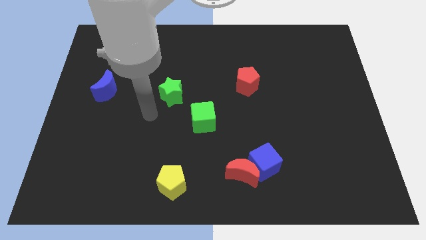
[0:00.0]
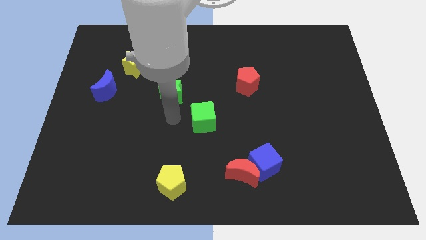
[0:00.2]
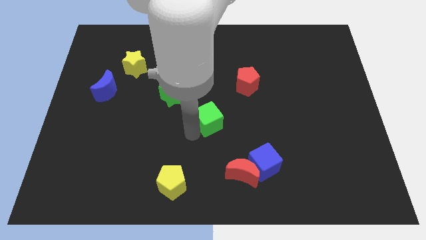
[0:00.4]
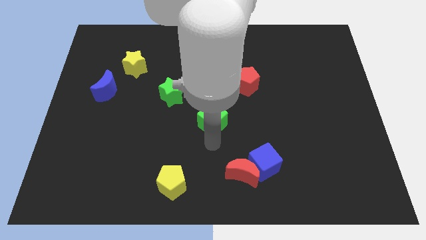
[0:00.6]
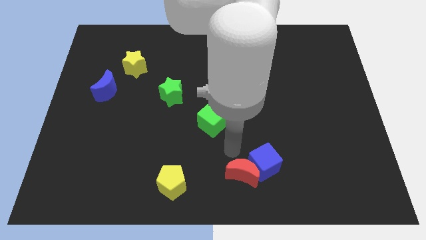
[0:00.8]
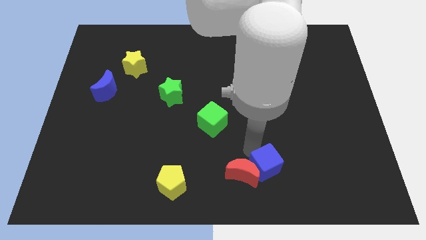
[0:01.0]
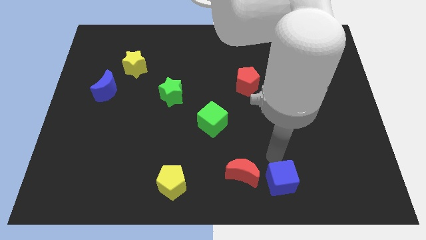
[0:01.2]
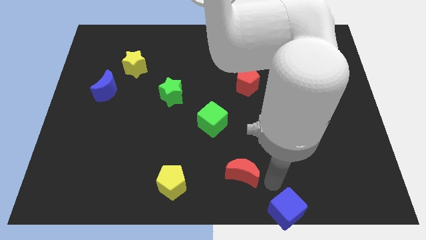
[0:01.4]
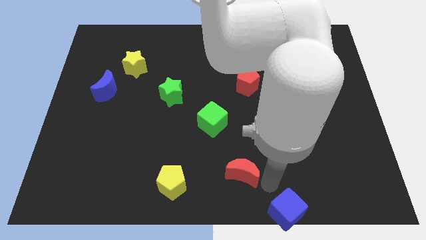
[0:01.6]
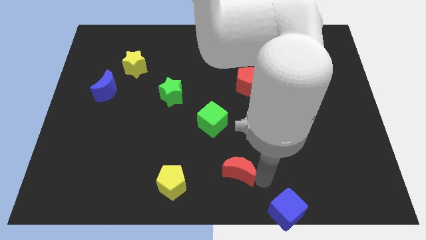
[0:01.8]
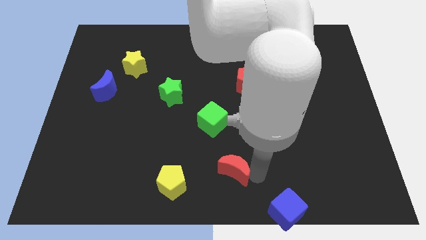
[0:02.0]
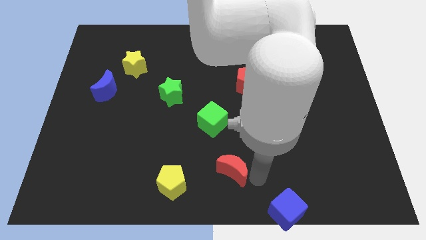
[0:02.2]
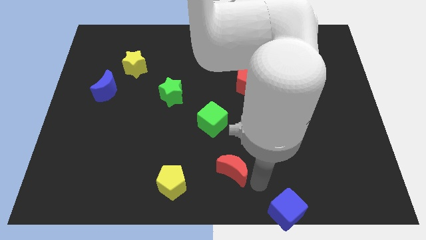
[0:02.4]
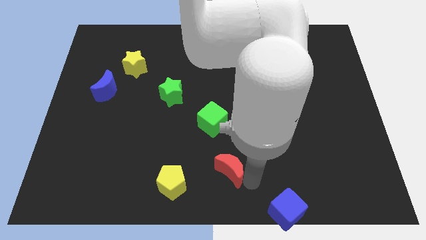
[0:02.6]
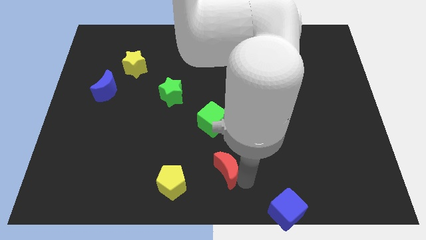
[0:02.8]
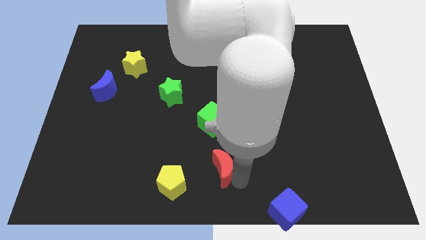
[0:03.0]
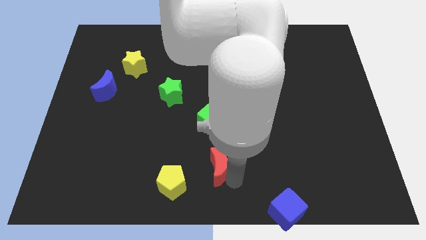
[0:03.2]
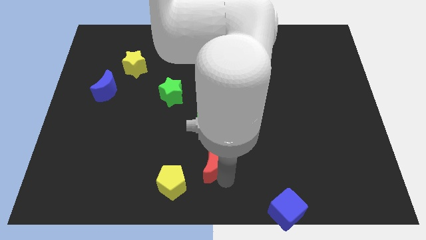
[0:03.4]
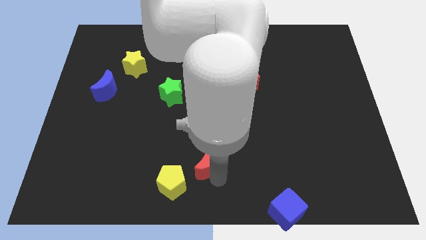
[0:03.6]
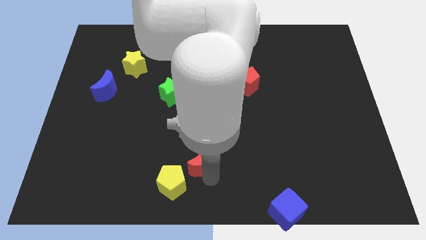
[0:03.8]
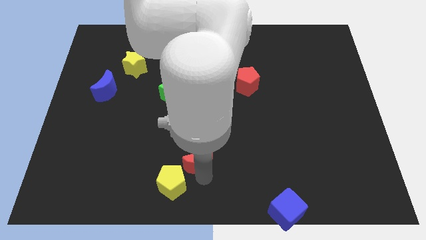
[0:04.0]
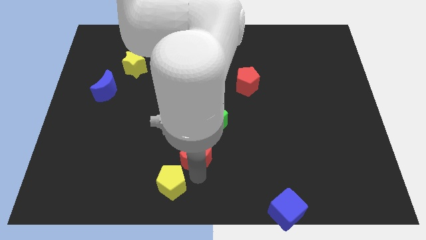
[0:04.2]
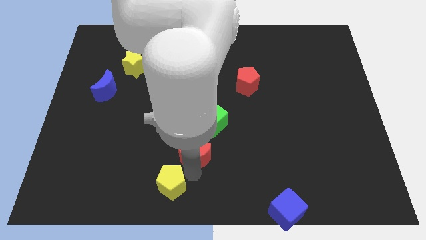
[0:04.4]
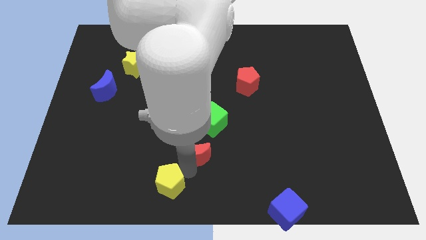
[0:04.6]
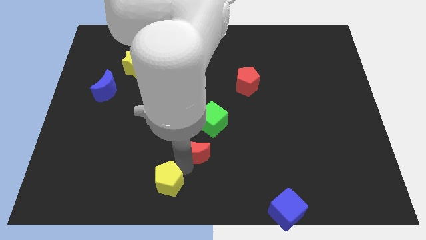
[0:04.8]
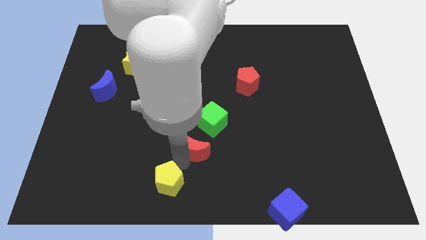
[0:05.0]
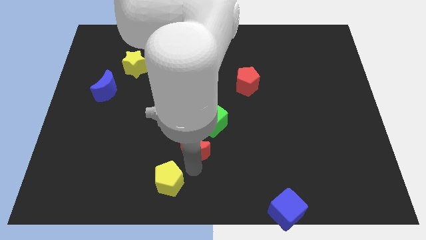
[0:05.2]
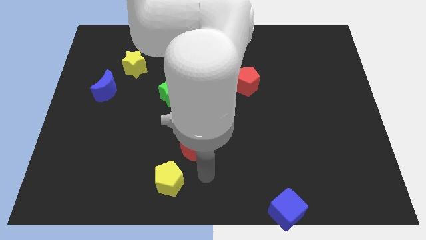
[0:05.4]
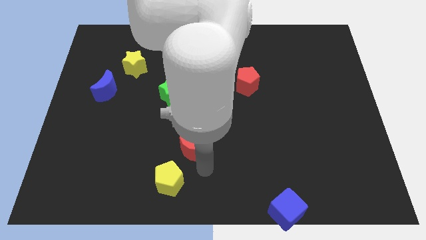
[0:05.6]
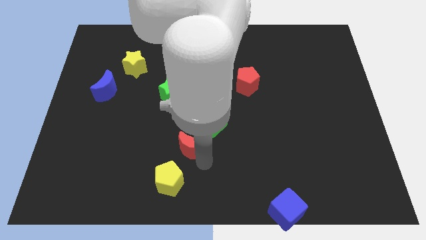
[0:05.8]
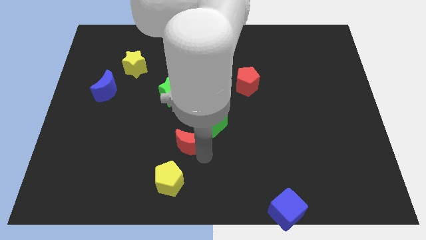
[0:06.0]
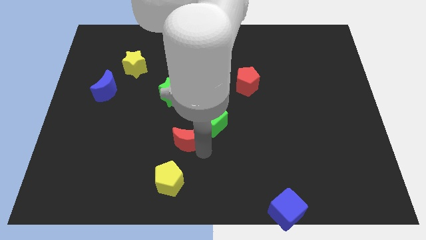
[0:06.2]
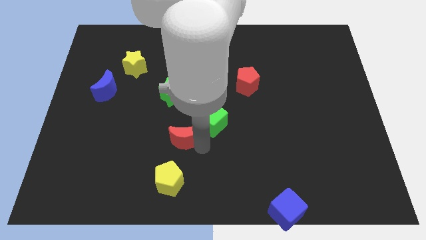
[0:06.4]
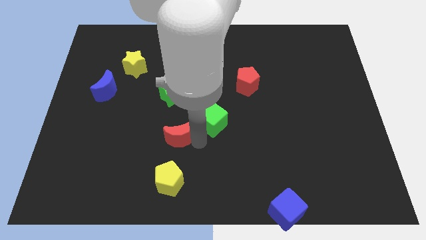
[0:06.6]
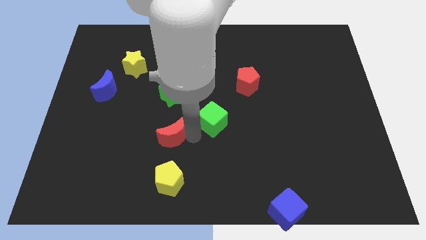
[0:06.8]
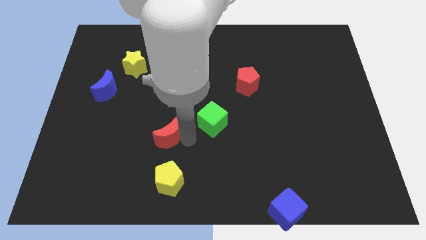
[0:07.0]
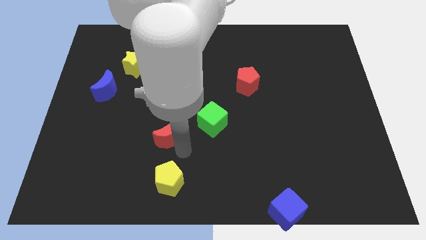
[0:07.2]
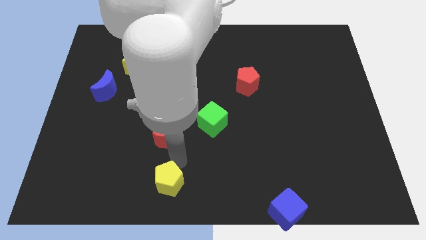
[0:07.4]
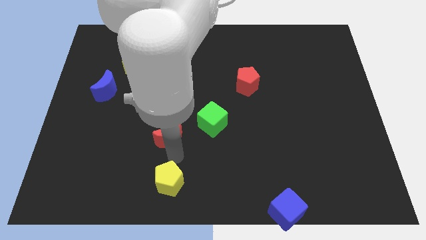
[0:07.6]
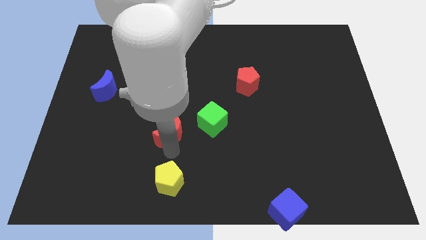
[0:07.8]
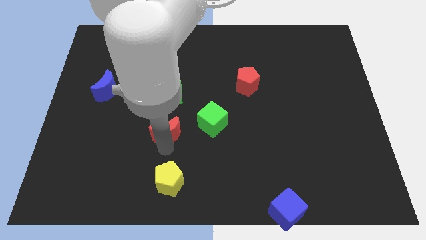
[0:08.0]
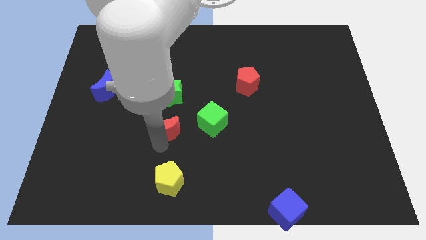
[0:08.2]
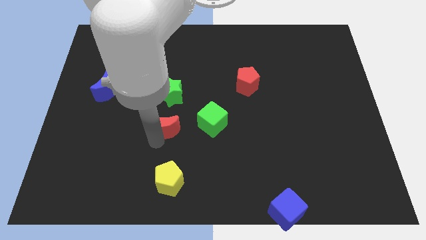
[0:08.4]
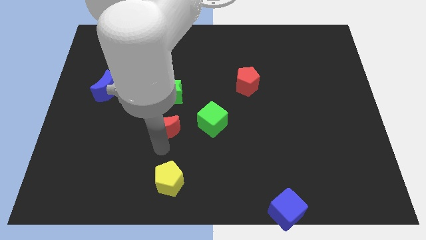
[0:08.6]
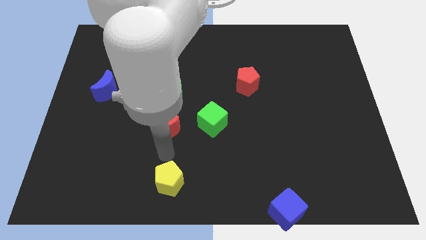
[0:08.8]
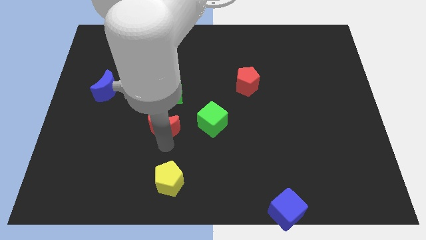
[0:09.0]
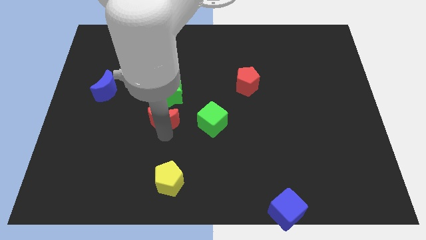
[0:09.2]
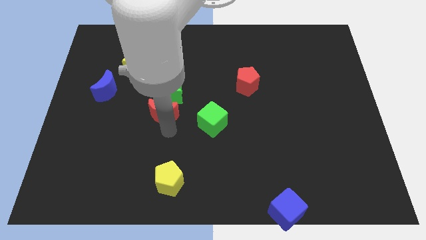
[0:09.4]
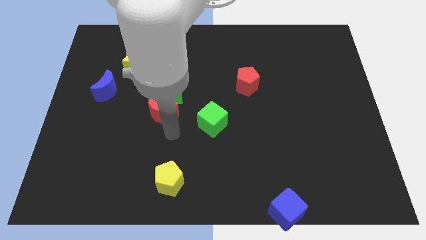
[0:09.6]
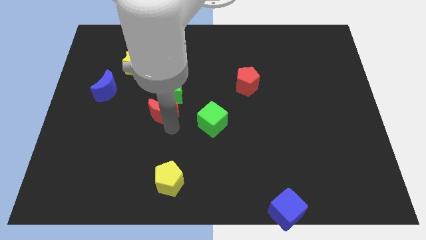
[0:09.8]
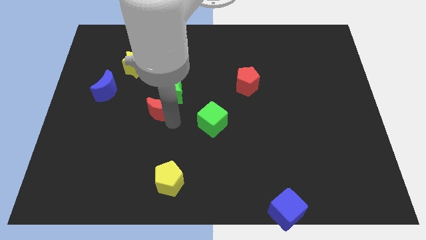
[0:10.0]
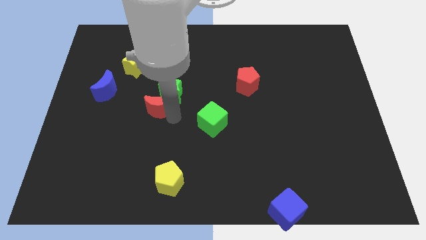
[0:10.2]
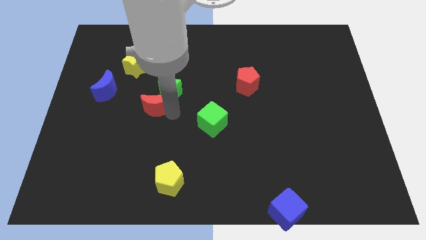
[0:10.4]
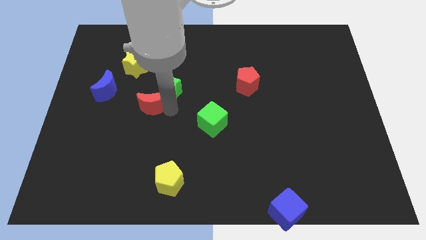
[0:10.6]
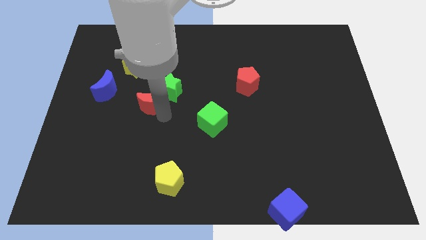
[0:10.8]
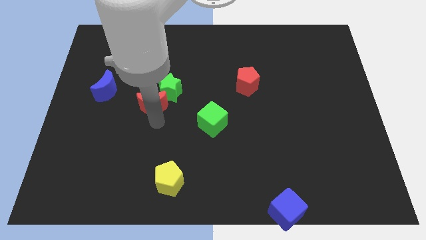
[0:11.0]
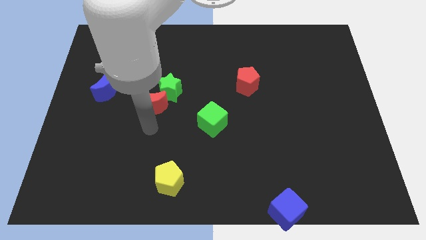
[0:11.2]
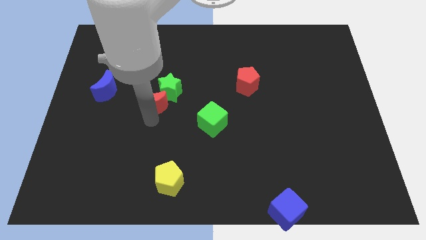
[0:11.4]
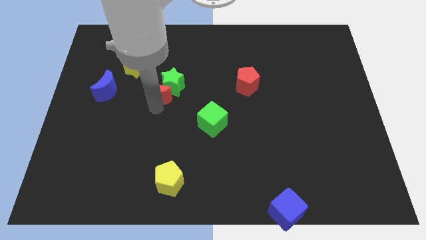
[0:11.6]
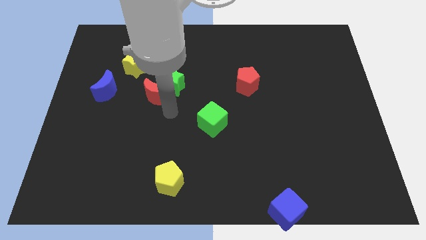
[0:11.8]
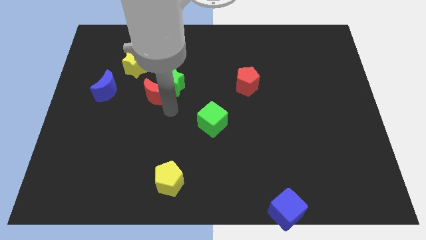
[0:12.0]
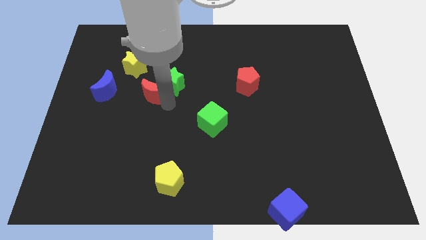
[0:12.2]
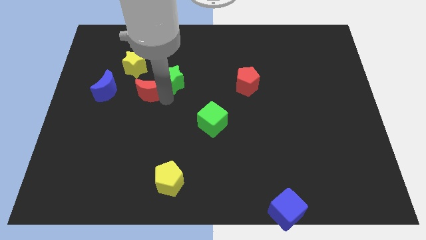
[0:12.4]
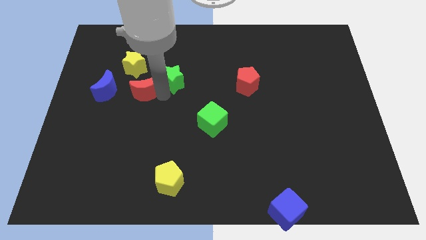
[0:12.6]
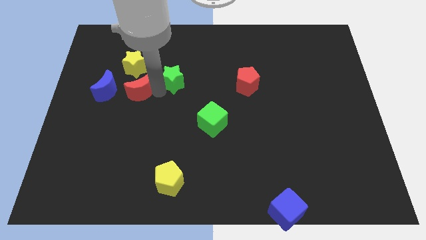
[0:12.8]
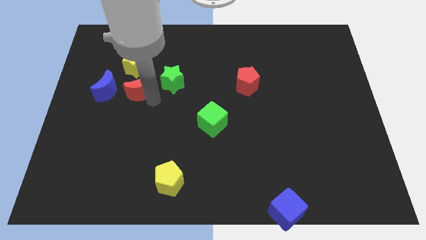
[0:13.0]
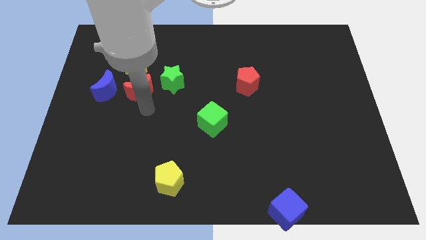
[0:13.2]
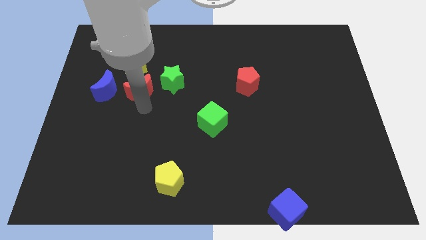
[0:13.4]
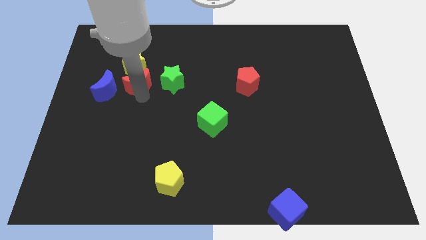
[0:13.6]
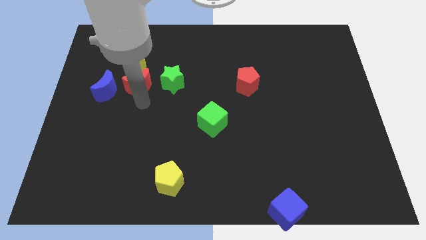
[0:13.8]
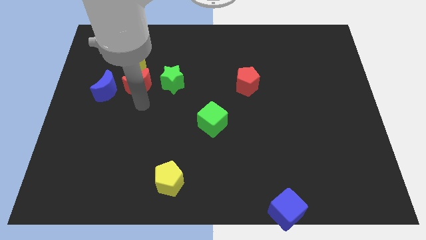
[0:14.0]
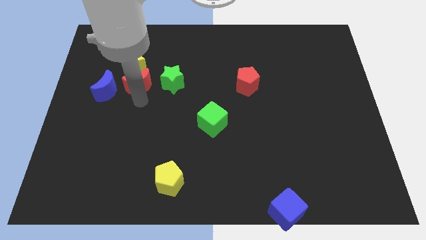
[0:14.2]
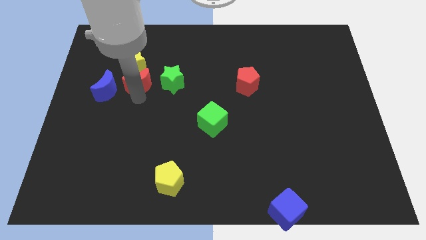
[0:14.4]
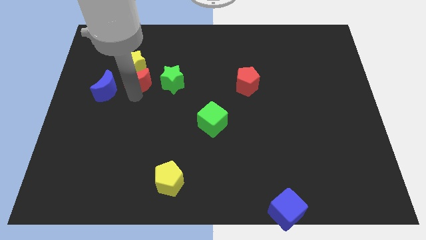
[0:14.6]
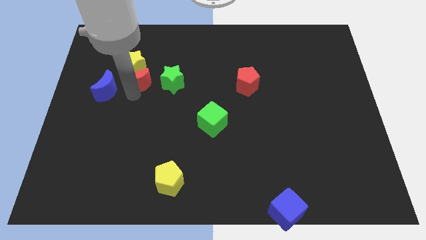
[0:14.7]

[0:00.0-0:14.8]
put the red moon towards the yellow star
